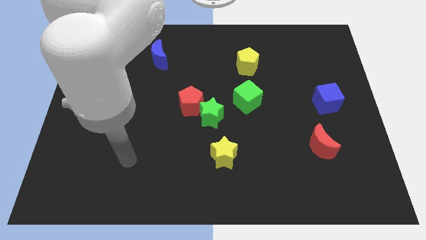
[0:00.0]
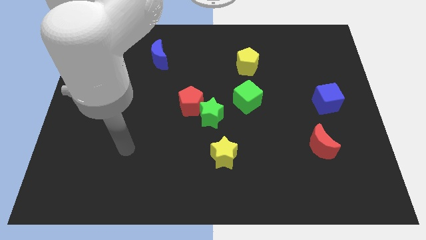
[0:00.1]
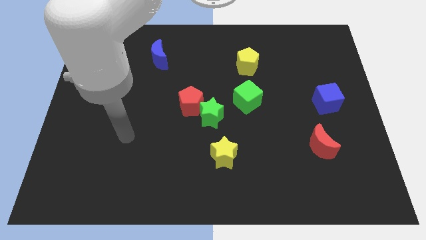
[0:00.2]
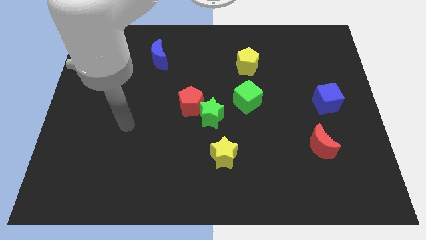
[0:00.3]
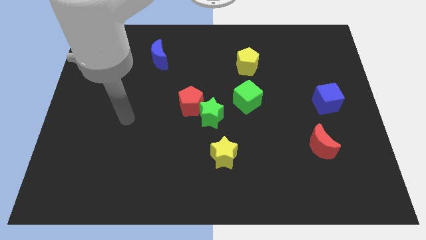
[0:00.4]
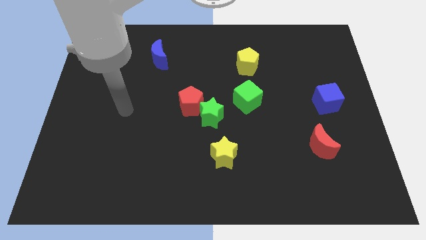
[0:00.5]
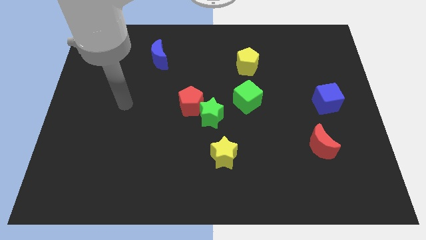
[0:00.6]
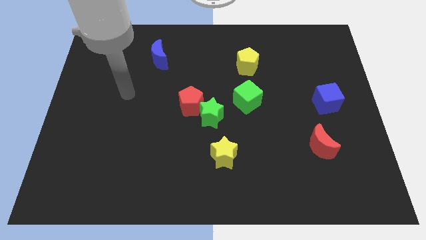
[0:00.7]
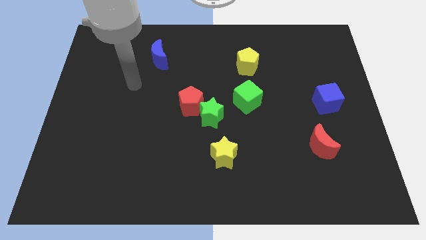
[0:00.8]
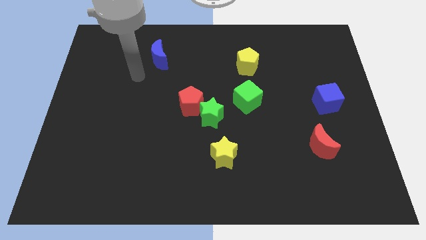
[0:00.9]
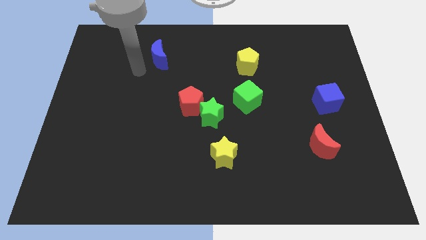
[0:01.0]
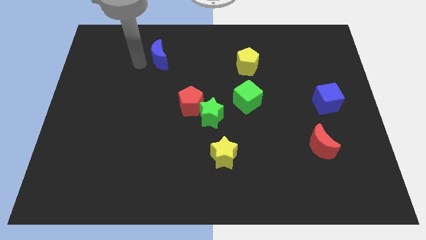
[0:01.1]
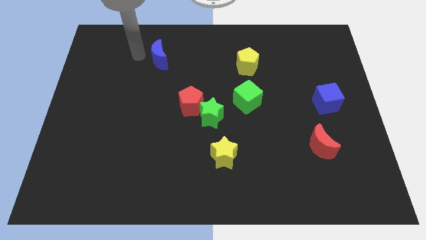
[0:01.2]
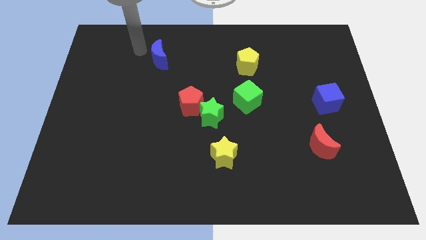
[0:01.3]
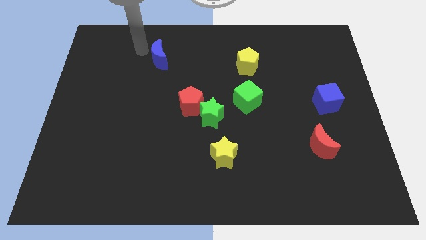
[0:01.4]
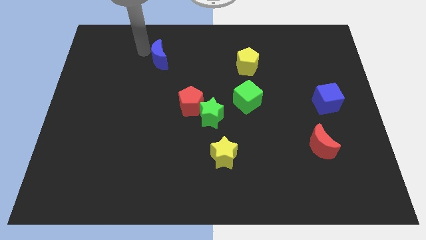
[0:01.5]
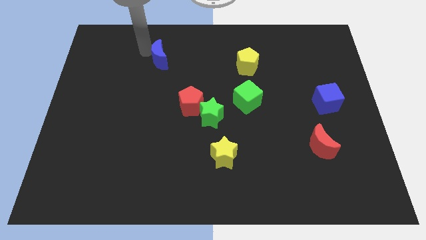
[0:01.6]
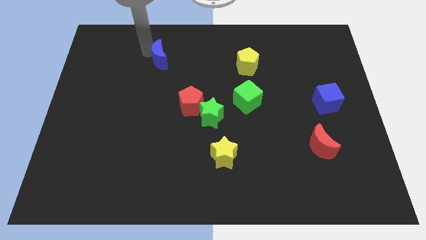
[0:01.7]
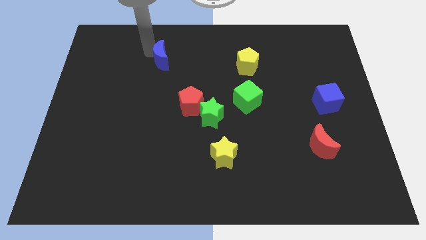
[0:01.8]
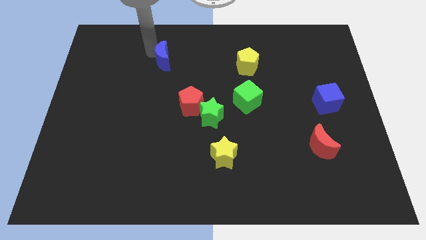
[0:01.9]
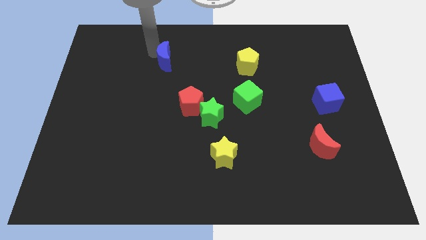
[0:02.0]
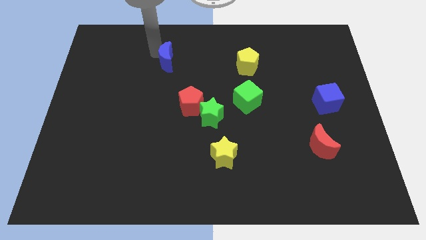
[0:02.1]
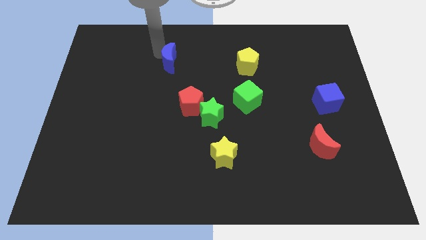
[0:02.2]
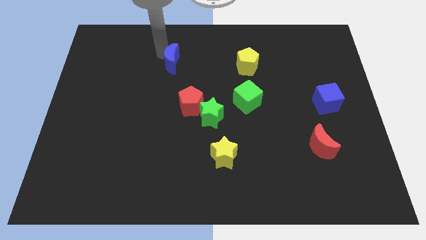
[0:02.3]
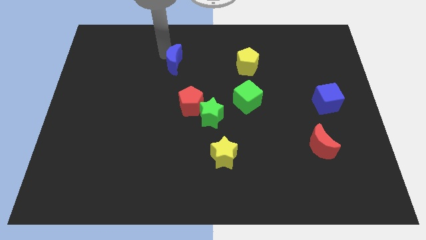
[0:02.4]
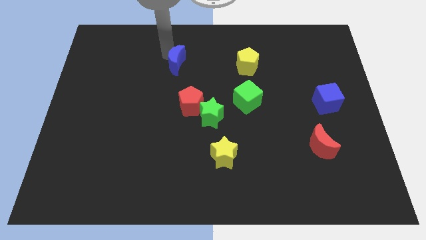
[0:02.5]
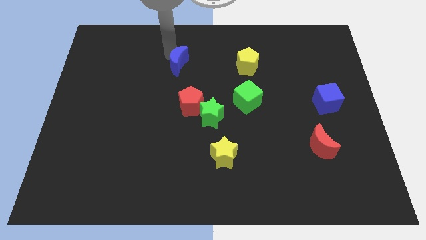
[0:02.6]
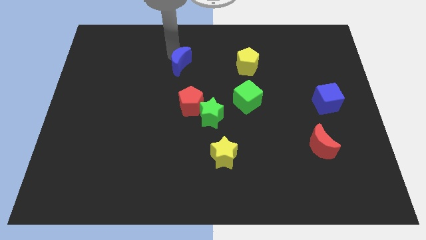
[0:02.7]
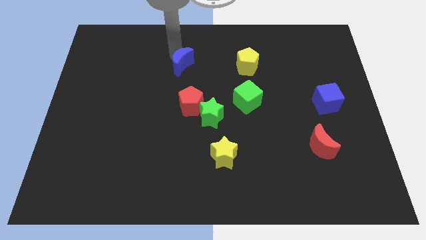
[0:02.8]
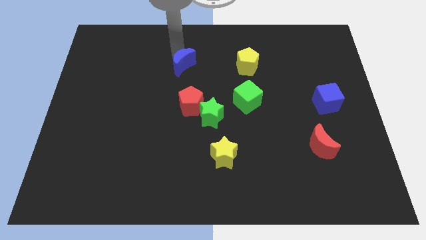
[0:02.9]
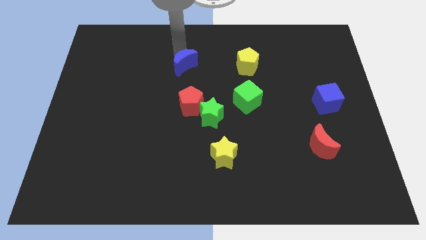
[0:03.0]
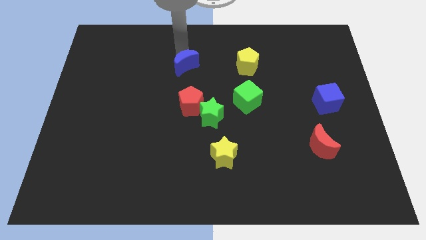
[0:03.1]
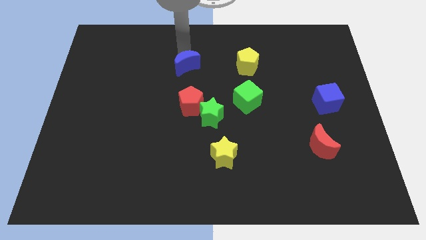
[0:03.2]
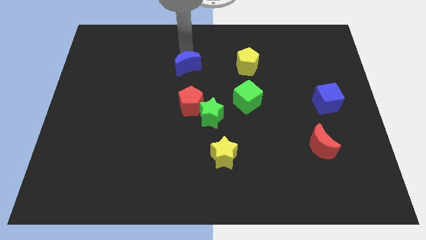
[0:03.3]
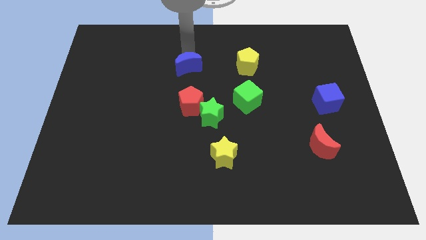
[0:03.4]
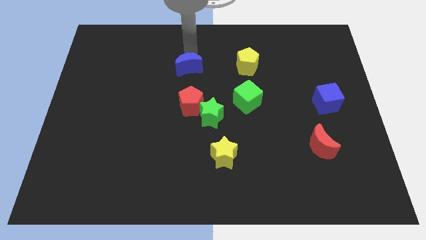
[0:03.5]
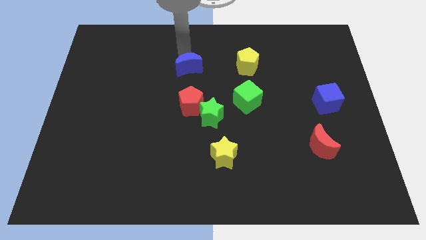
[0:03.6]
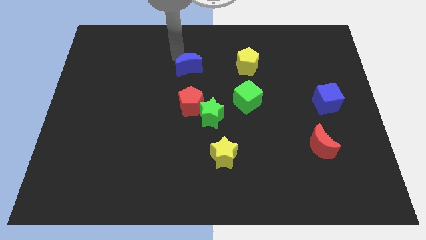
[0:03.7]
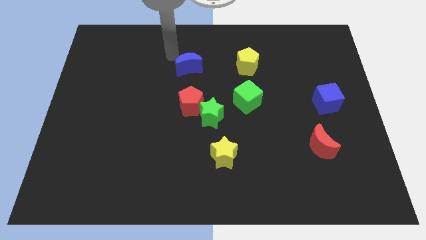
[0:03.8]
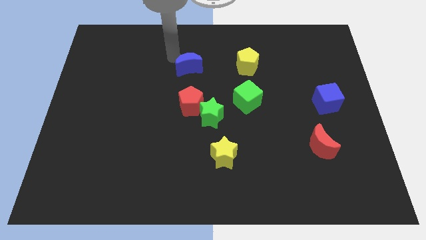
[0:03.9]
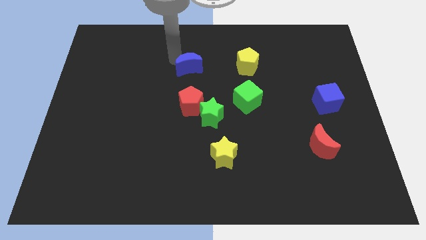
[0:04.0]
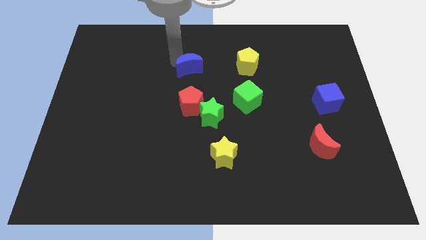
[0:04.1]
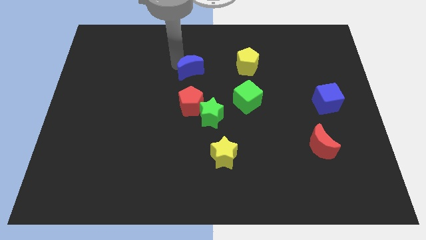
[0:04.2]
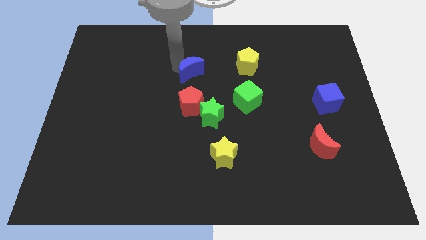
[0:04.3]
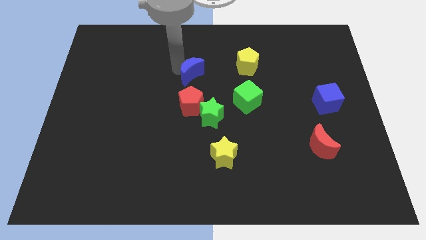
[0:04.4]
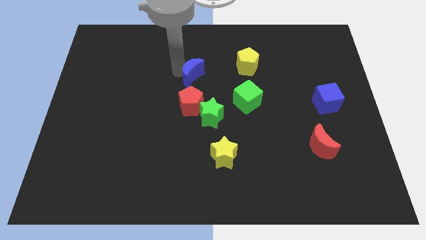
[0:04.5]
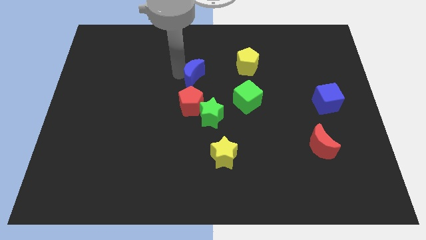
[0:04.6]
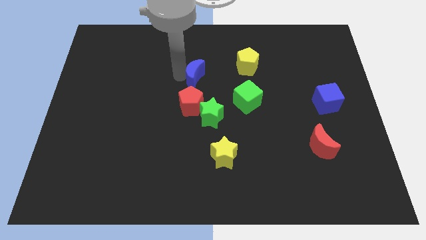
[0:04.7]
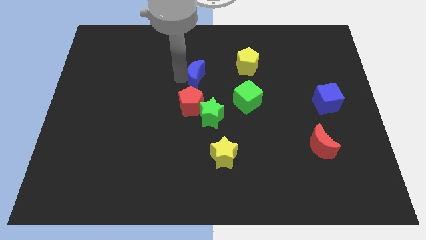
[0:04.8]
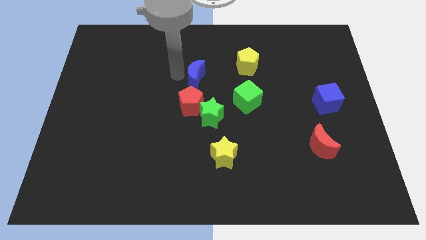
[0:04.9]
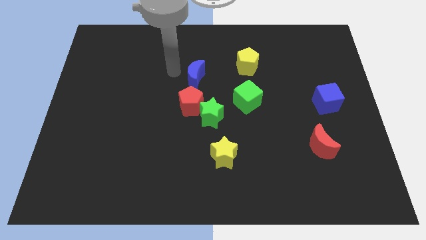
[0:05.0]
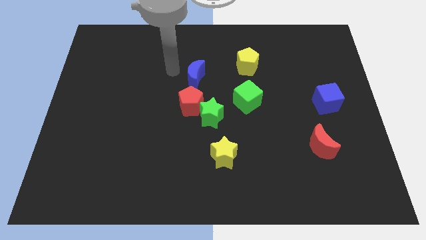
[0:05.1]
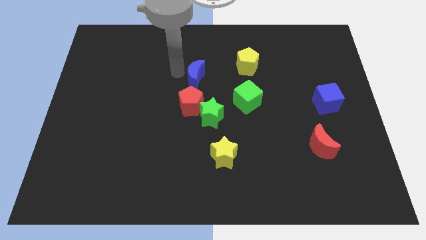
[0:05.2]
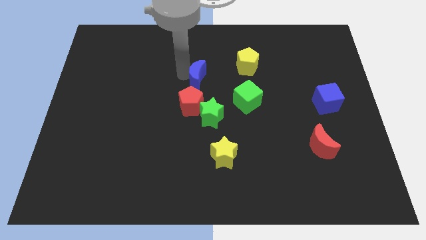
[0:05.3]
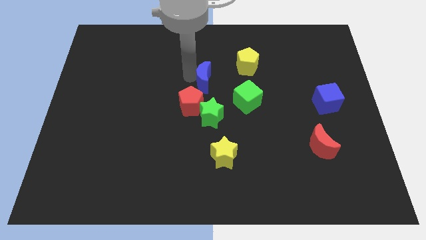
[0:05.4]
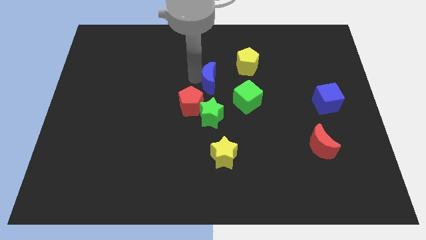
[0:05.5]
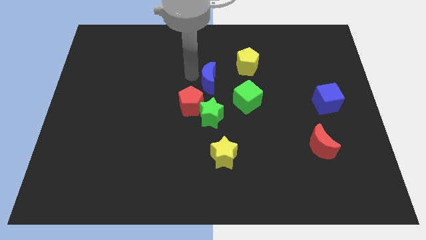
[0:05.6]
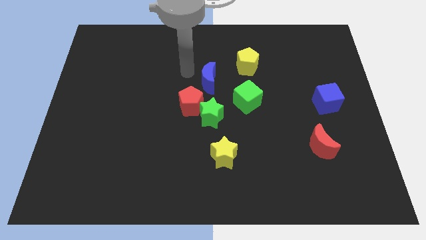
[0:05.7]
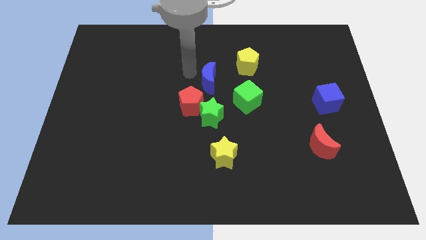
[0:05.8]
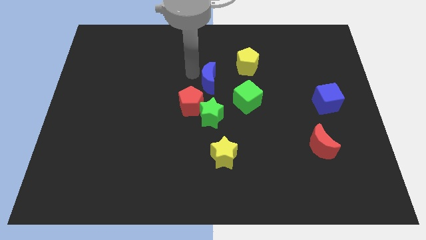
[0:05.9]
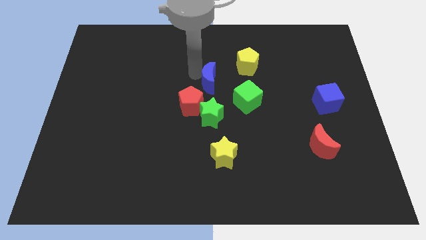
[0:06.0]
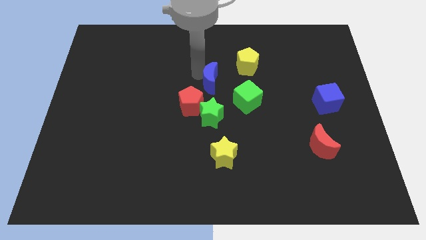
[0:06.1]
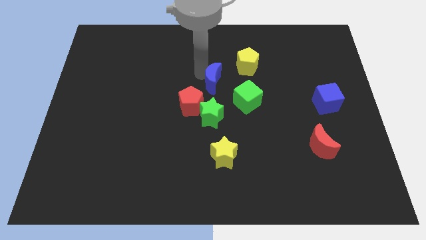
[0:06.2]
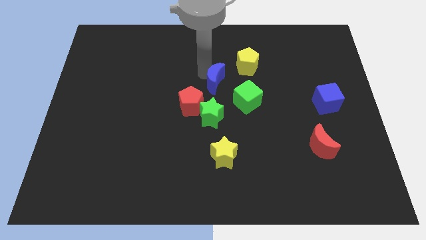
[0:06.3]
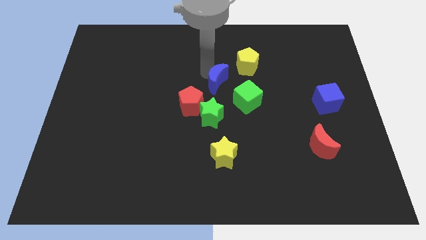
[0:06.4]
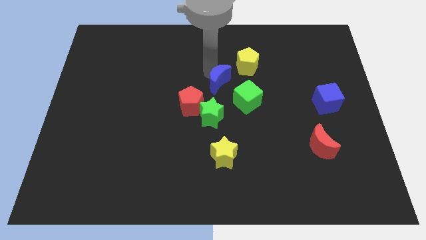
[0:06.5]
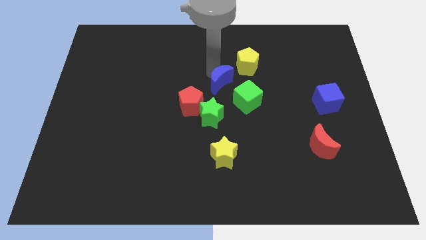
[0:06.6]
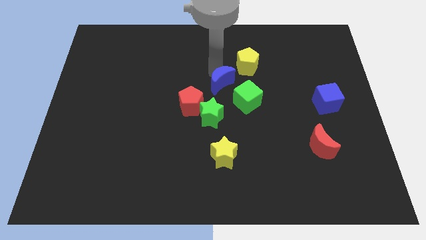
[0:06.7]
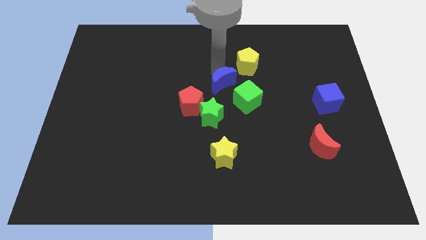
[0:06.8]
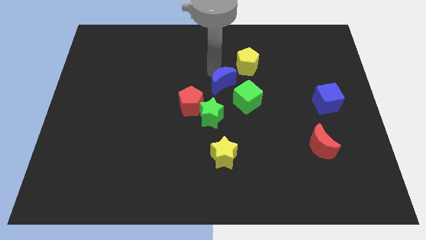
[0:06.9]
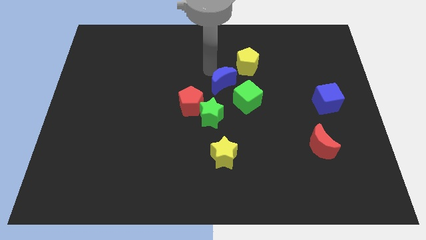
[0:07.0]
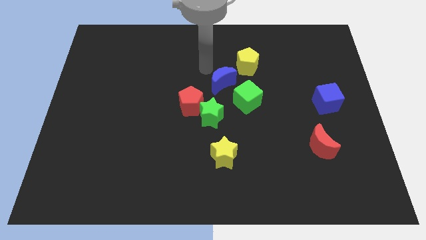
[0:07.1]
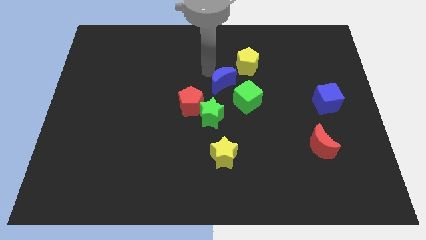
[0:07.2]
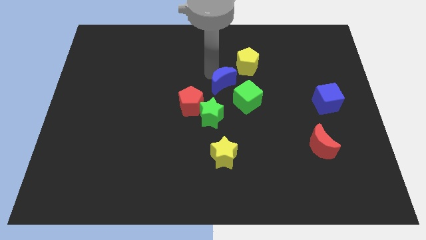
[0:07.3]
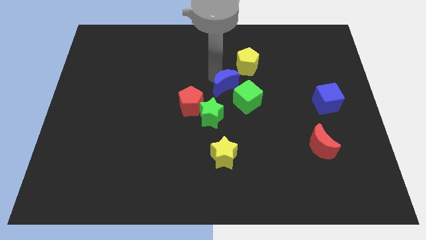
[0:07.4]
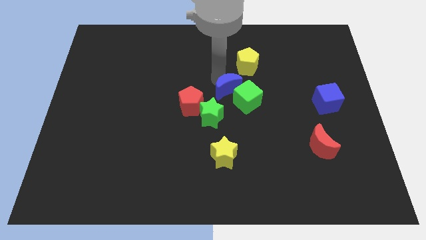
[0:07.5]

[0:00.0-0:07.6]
slide the blue moon to the green cube

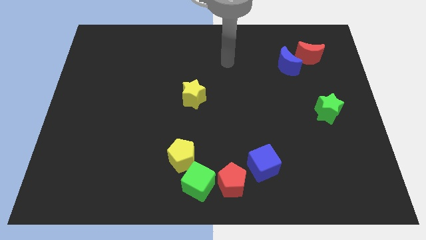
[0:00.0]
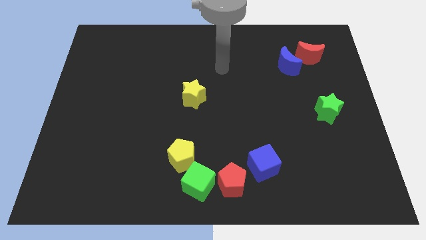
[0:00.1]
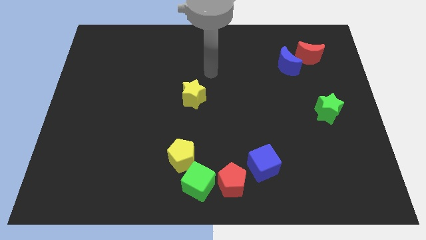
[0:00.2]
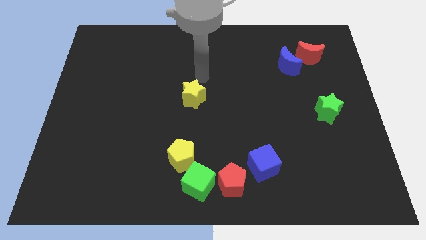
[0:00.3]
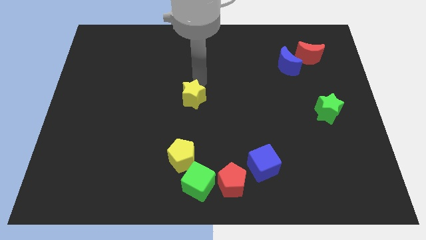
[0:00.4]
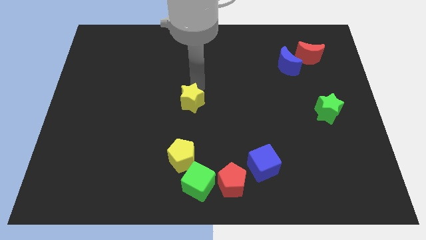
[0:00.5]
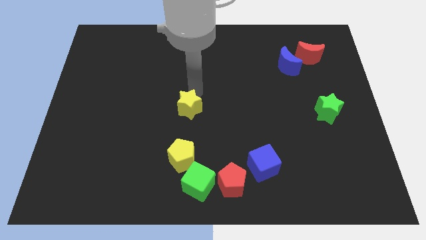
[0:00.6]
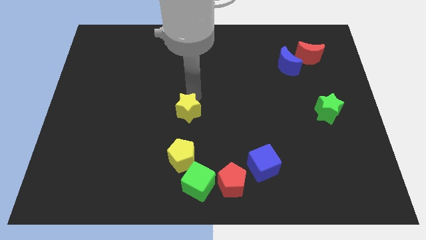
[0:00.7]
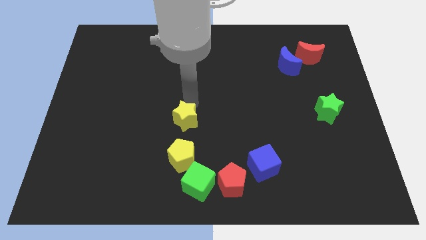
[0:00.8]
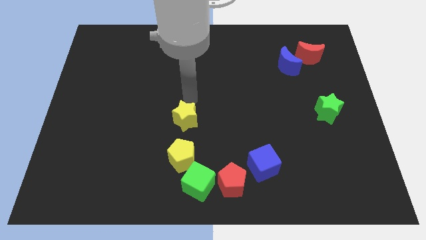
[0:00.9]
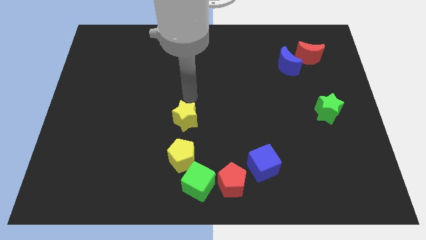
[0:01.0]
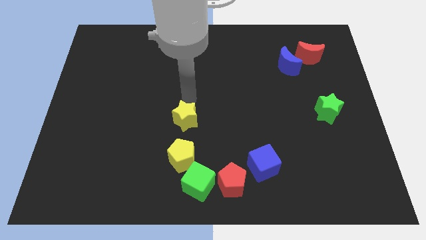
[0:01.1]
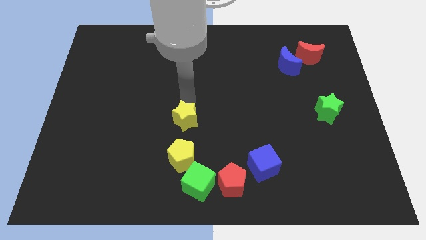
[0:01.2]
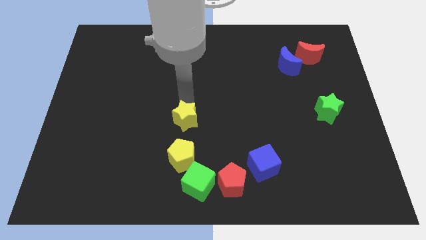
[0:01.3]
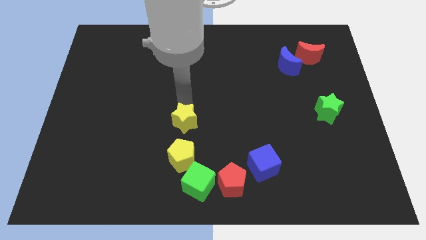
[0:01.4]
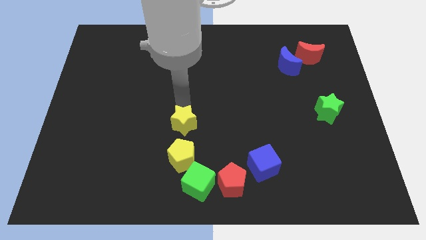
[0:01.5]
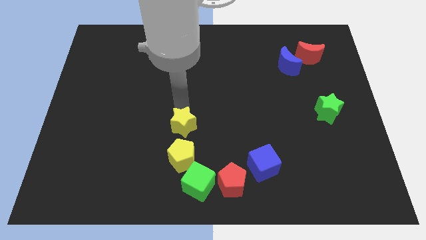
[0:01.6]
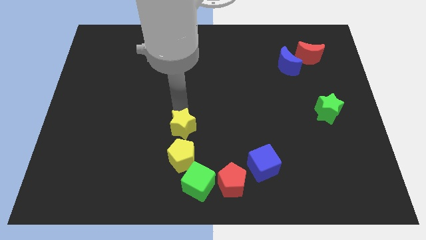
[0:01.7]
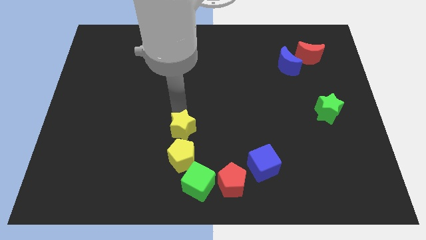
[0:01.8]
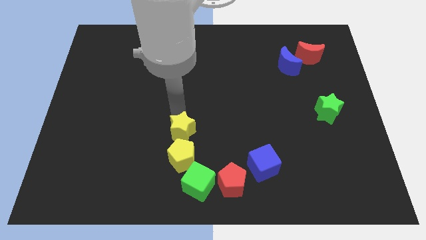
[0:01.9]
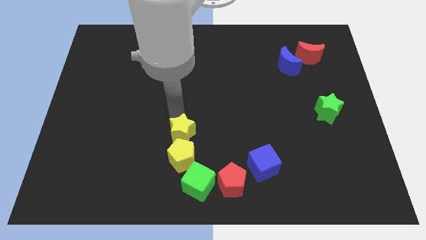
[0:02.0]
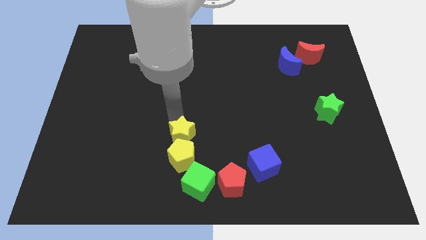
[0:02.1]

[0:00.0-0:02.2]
push the yellow star close to the yellow pentagon
